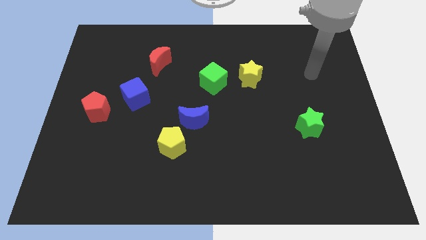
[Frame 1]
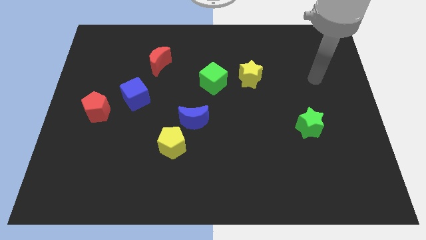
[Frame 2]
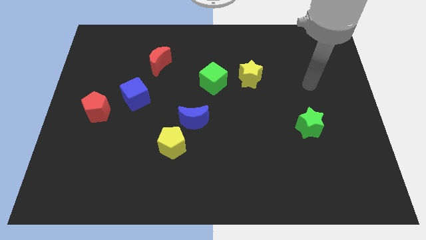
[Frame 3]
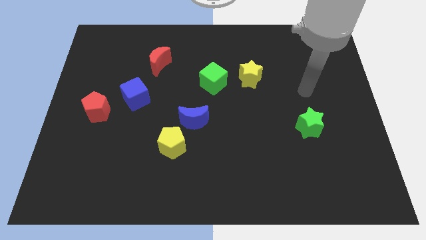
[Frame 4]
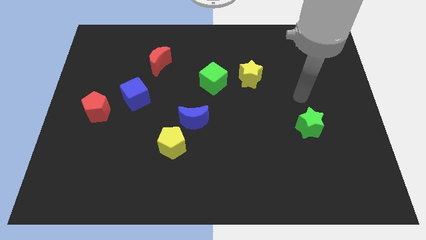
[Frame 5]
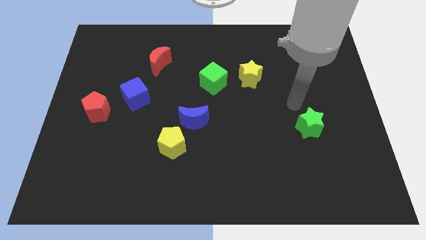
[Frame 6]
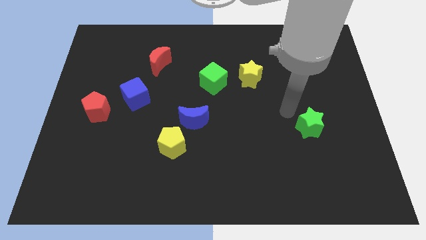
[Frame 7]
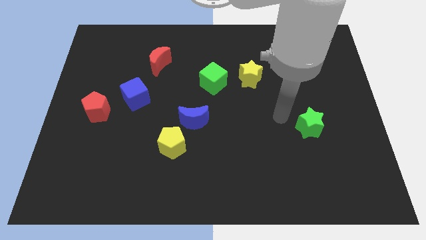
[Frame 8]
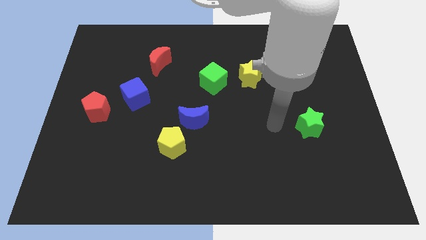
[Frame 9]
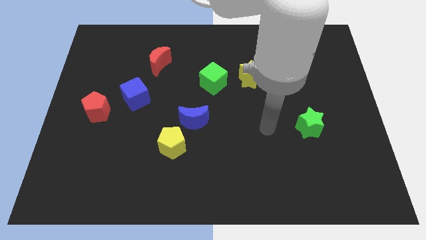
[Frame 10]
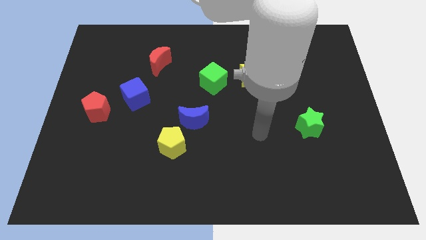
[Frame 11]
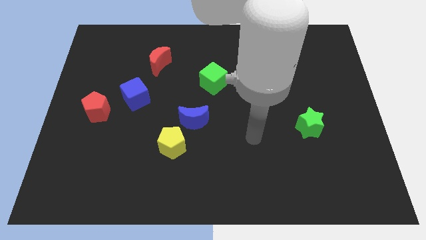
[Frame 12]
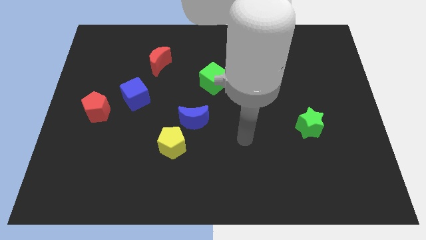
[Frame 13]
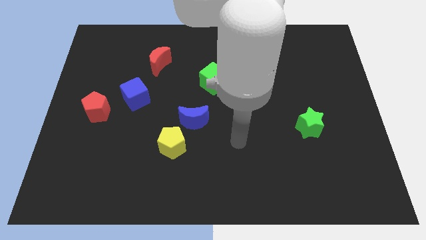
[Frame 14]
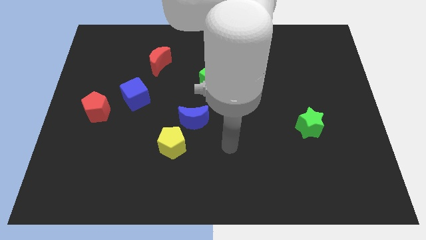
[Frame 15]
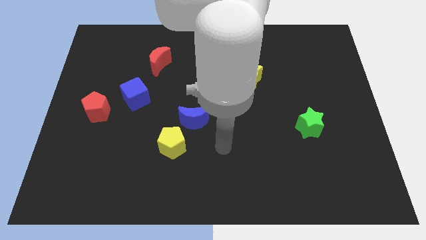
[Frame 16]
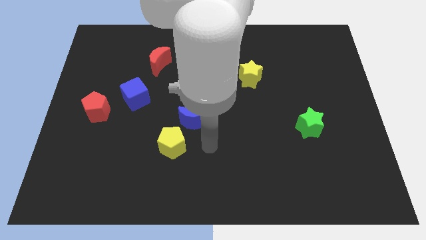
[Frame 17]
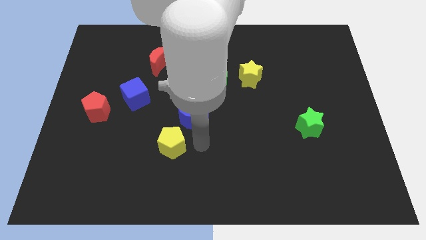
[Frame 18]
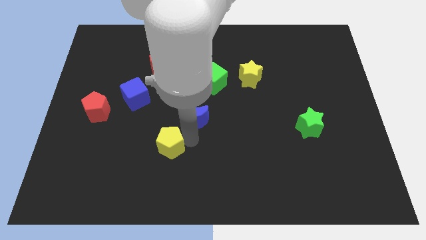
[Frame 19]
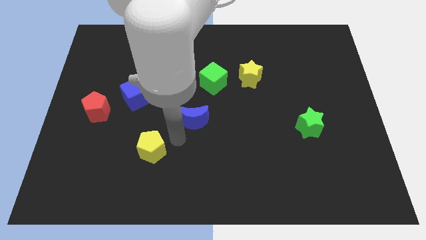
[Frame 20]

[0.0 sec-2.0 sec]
pull the blue moon apart from the yellow pentagon

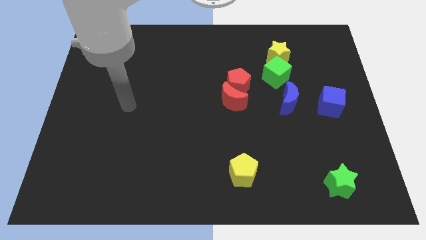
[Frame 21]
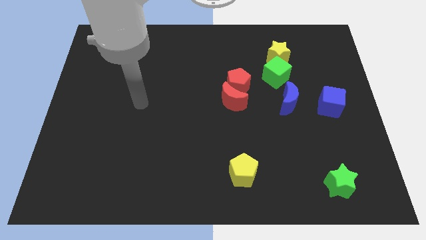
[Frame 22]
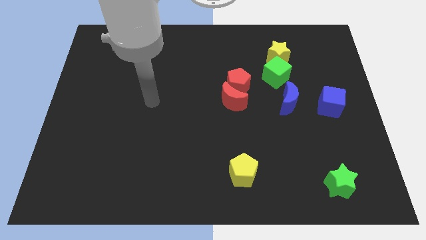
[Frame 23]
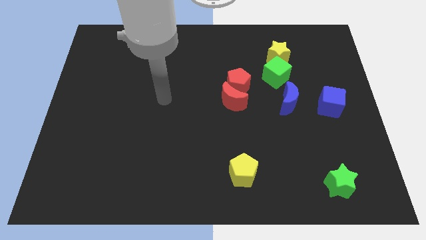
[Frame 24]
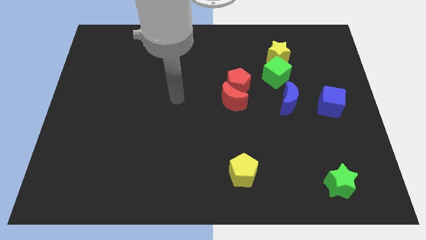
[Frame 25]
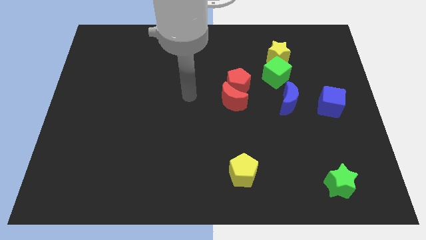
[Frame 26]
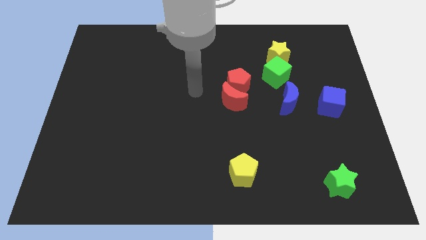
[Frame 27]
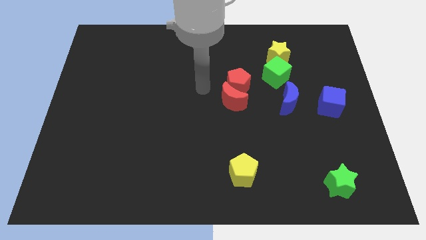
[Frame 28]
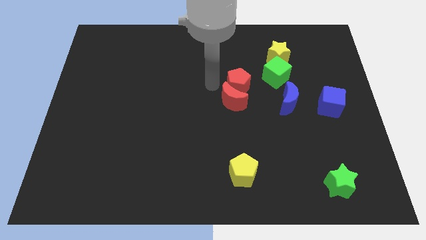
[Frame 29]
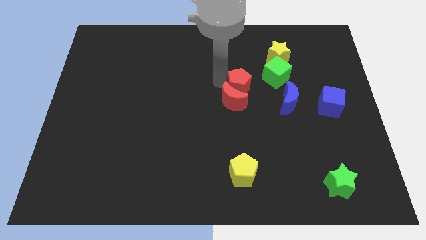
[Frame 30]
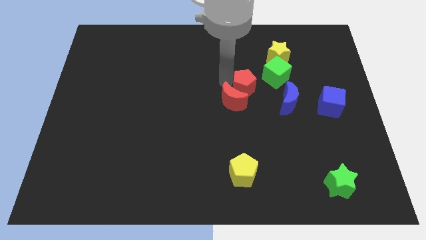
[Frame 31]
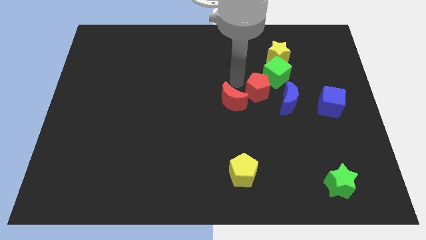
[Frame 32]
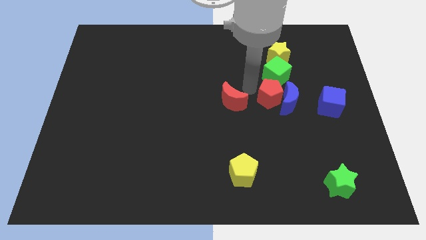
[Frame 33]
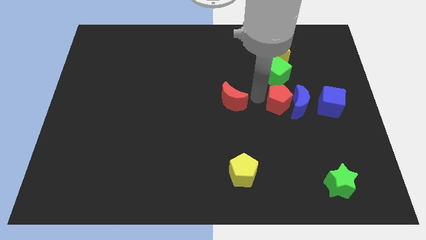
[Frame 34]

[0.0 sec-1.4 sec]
pull the red moon apart from the red pentagon

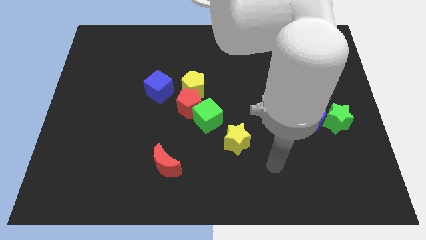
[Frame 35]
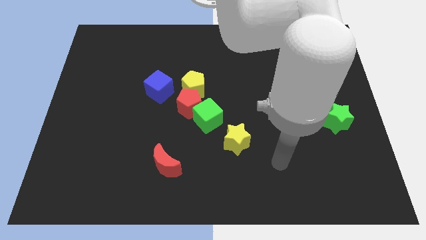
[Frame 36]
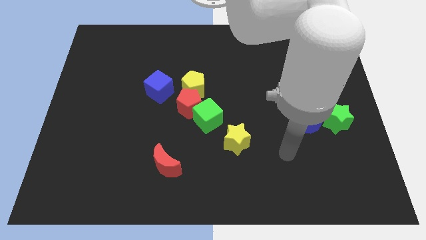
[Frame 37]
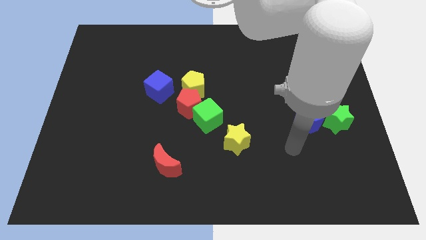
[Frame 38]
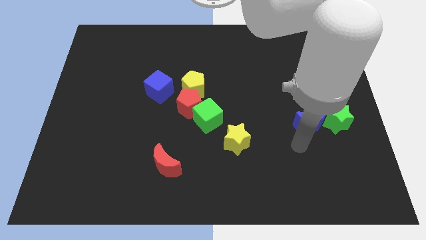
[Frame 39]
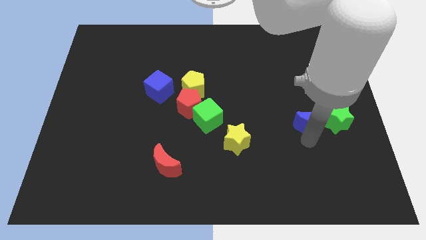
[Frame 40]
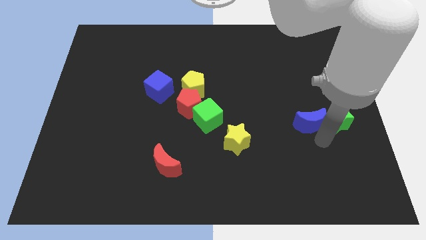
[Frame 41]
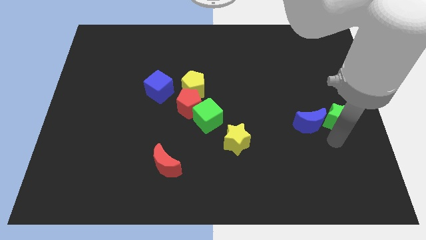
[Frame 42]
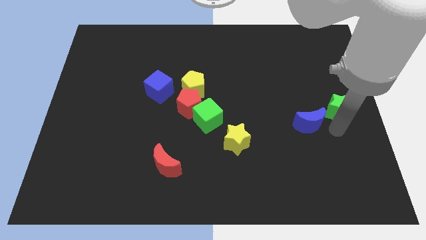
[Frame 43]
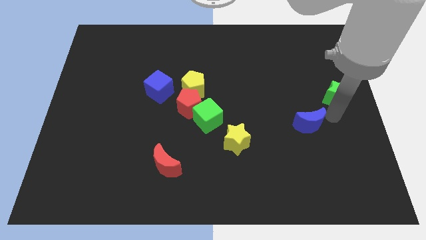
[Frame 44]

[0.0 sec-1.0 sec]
separate the blue moon from the green star

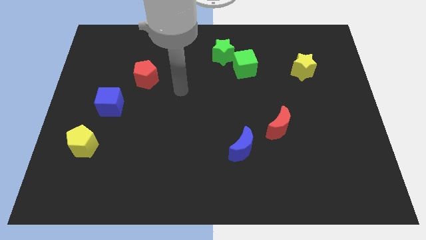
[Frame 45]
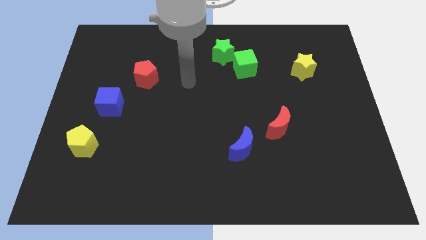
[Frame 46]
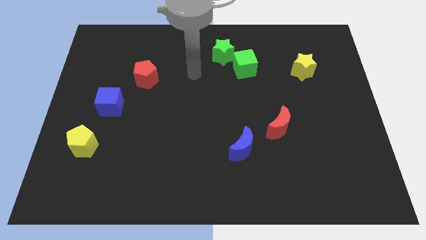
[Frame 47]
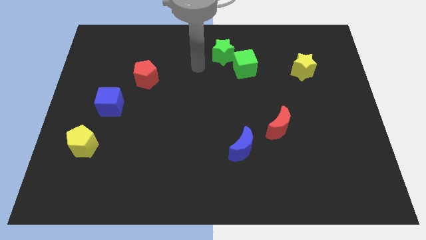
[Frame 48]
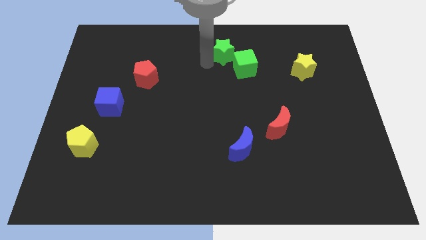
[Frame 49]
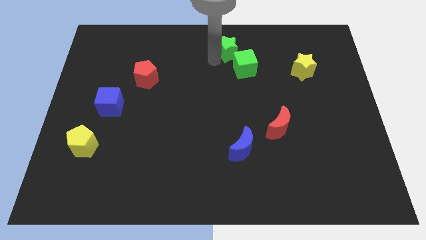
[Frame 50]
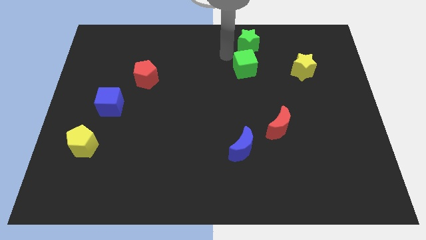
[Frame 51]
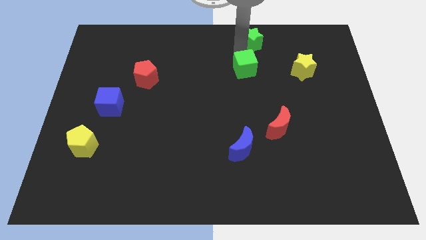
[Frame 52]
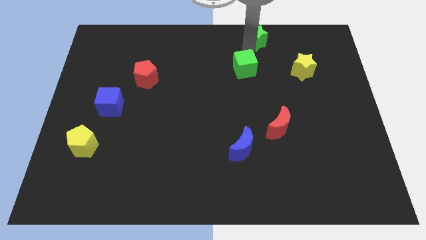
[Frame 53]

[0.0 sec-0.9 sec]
move the green cube away from the green star

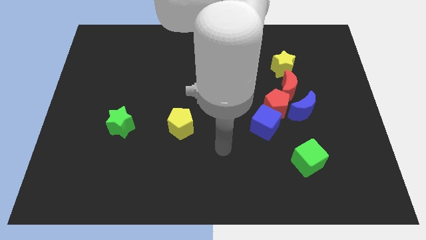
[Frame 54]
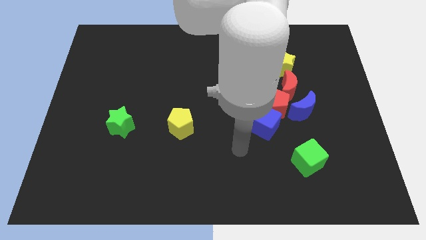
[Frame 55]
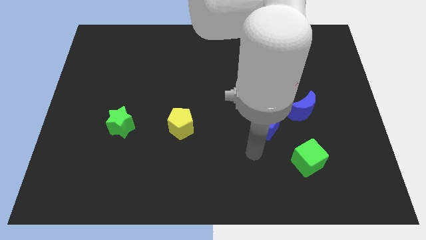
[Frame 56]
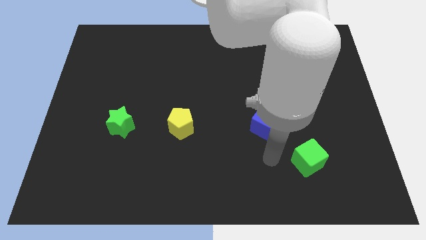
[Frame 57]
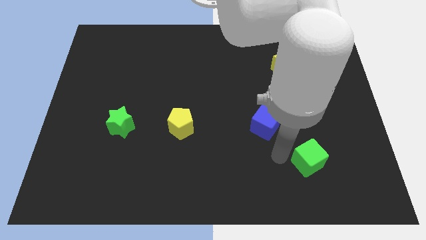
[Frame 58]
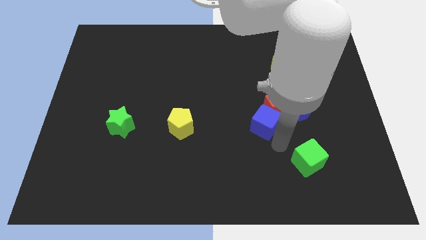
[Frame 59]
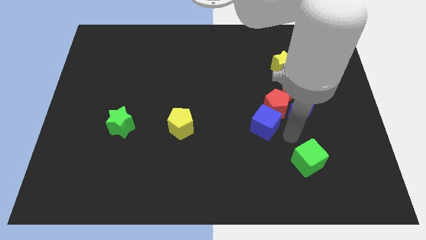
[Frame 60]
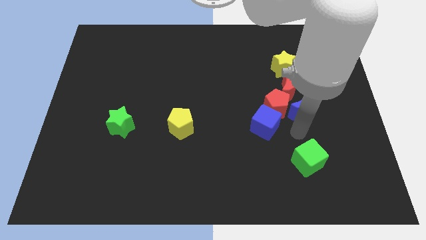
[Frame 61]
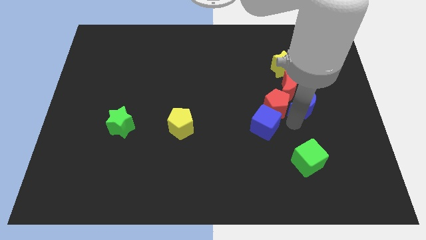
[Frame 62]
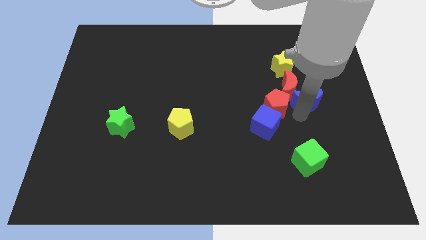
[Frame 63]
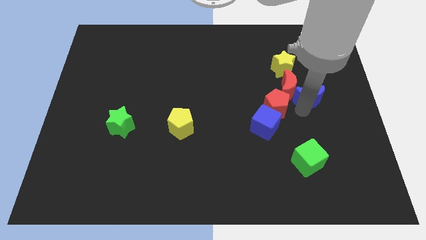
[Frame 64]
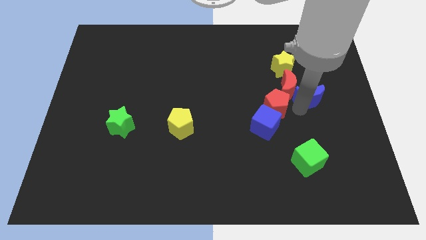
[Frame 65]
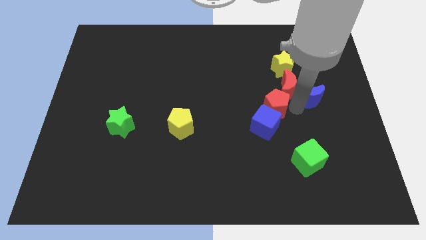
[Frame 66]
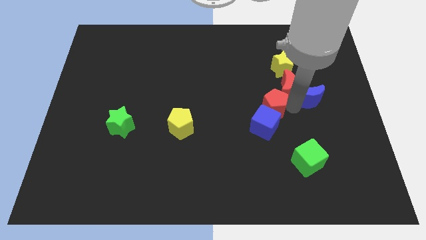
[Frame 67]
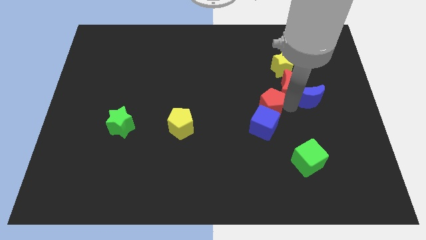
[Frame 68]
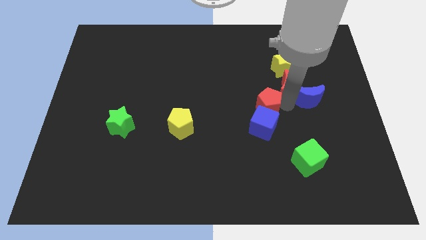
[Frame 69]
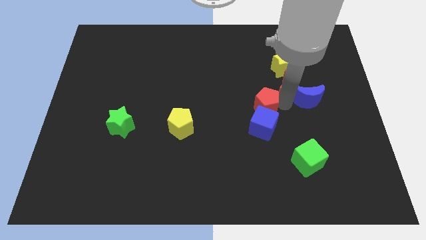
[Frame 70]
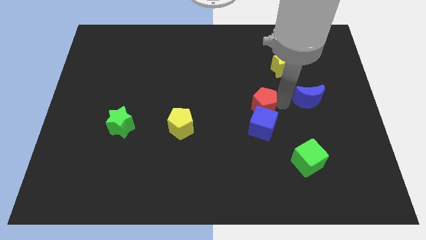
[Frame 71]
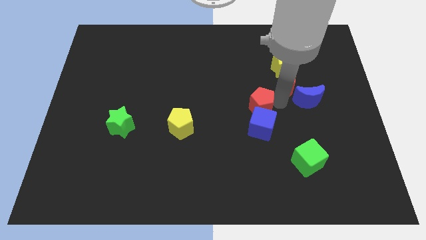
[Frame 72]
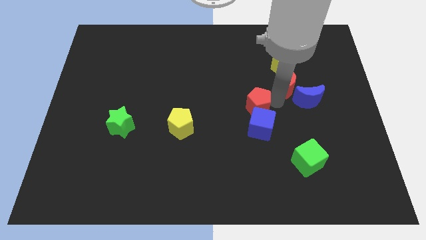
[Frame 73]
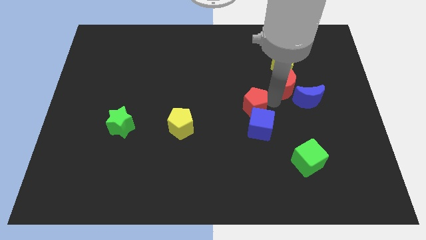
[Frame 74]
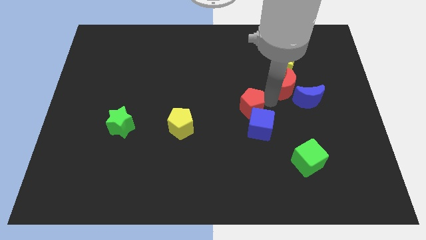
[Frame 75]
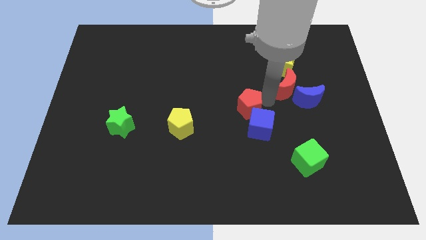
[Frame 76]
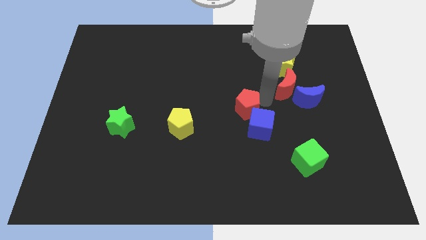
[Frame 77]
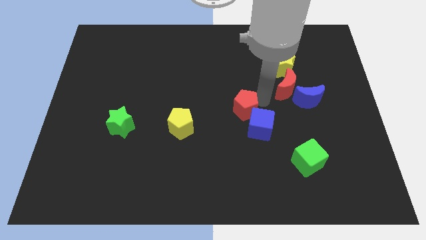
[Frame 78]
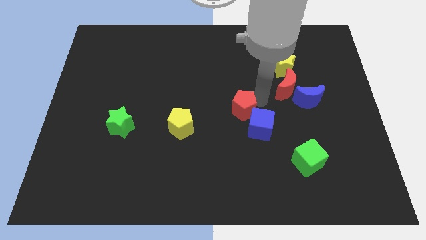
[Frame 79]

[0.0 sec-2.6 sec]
pull the red pentagon apart from the blue cube, red moon, and blue moon

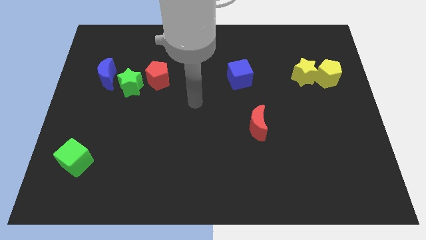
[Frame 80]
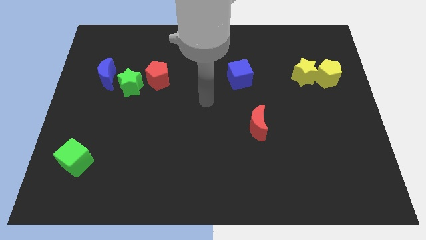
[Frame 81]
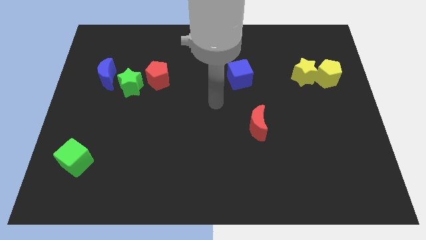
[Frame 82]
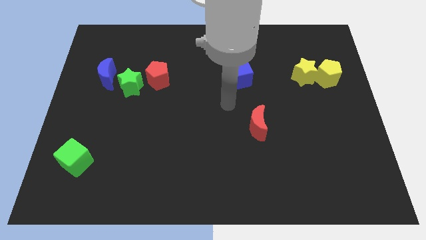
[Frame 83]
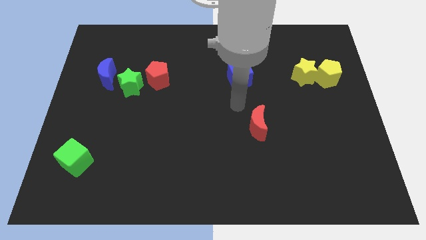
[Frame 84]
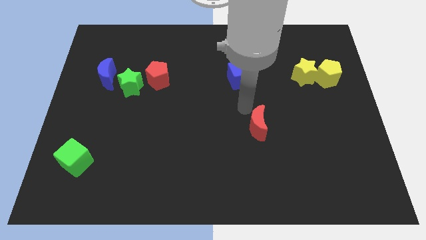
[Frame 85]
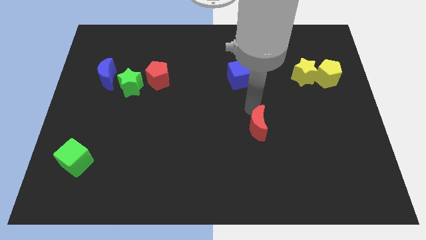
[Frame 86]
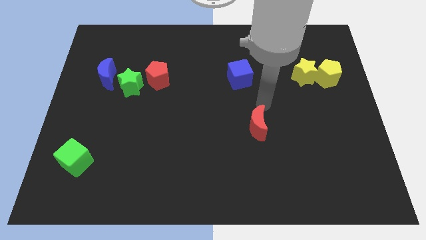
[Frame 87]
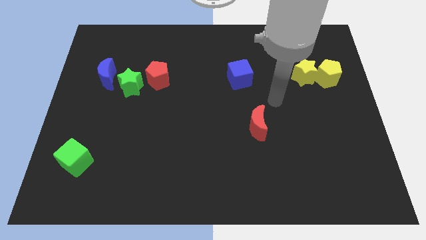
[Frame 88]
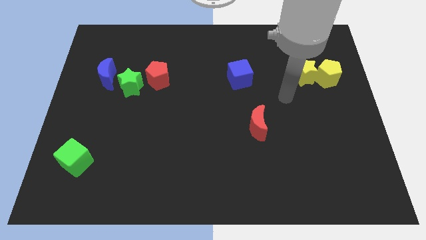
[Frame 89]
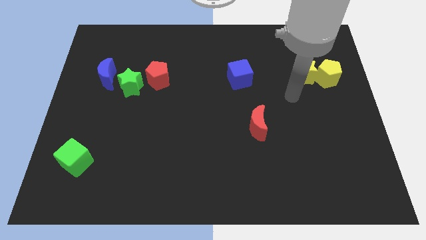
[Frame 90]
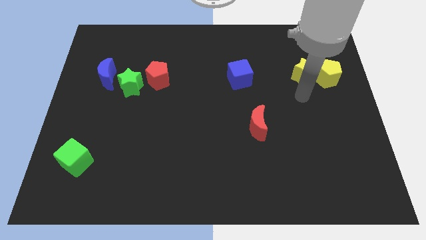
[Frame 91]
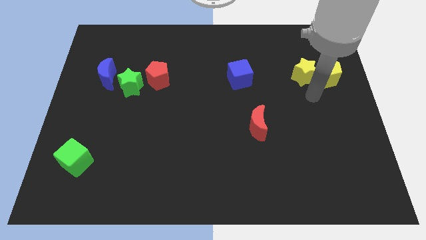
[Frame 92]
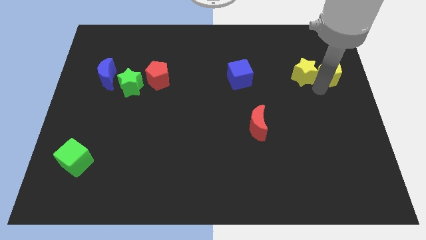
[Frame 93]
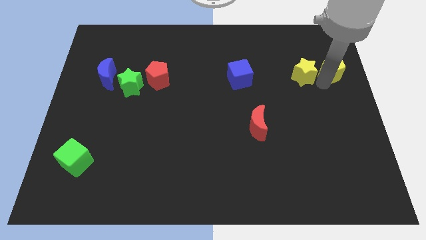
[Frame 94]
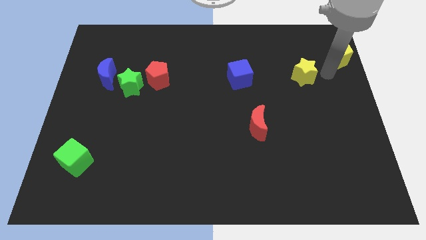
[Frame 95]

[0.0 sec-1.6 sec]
pull the yellow star apart from the yellow pentagon
